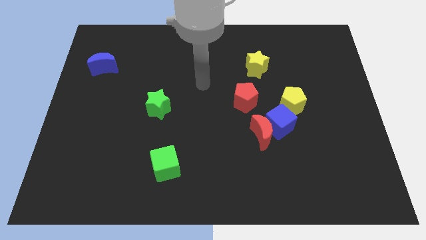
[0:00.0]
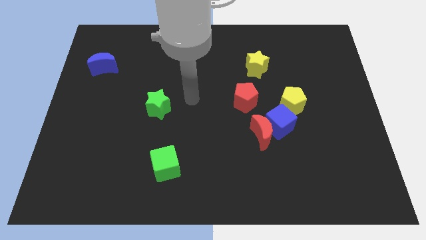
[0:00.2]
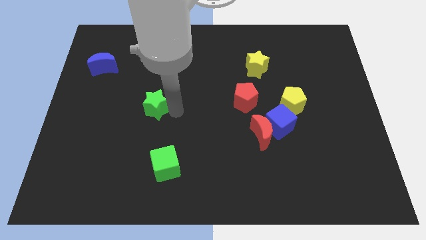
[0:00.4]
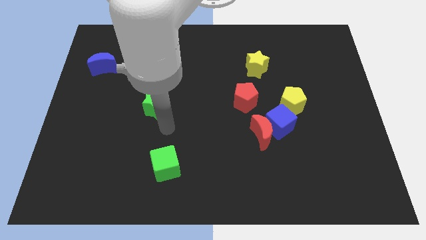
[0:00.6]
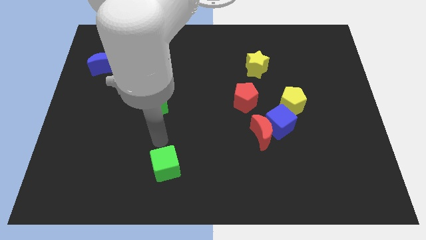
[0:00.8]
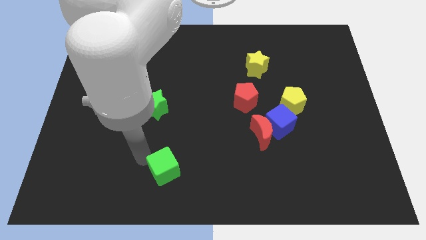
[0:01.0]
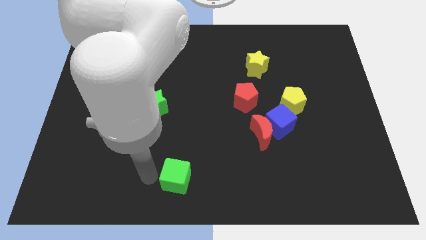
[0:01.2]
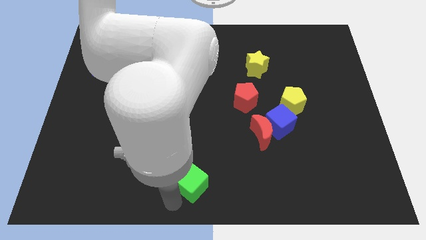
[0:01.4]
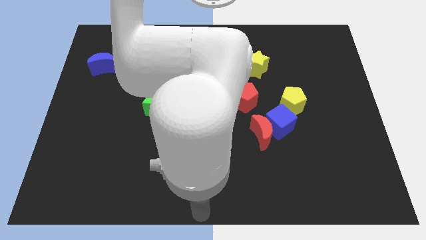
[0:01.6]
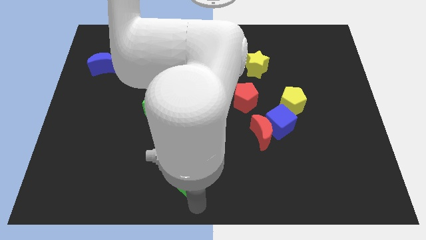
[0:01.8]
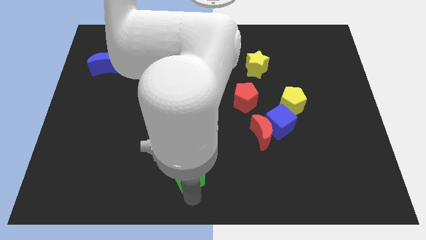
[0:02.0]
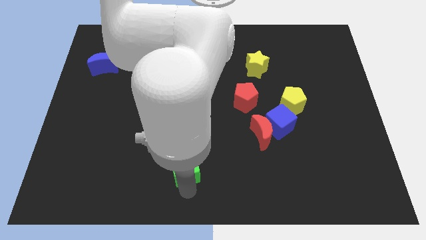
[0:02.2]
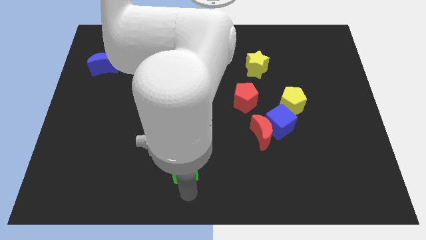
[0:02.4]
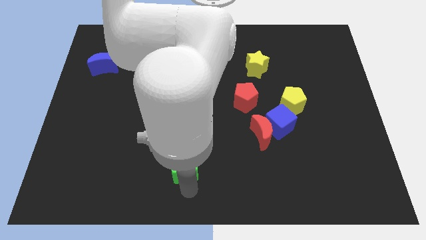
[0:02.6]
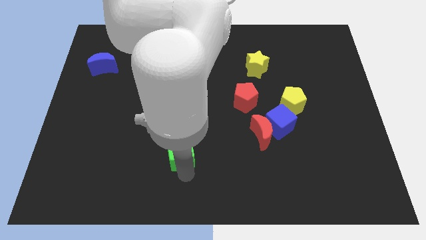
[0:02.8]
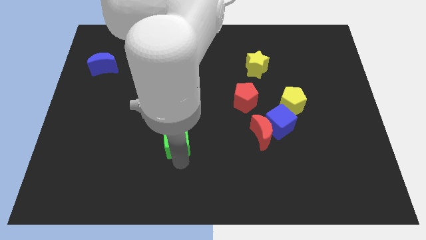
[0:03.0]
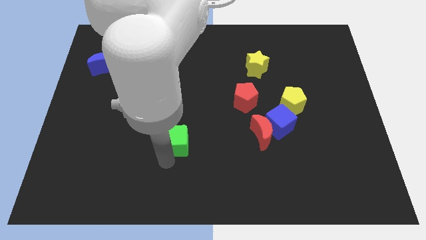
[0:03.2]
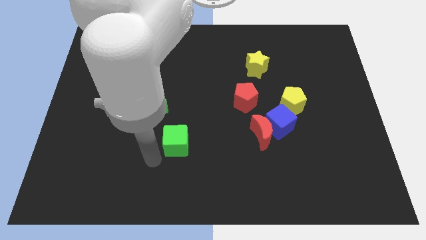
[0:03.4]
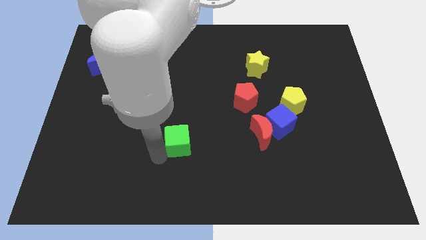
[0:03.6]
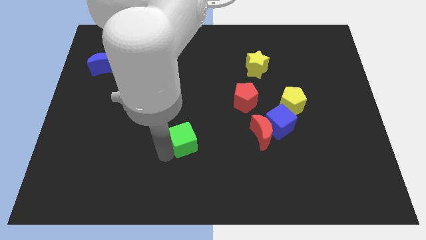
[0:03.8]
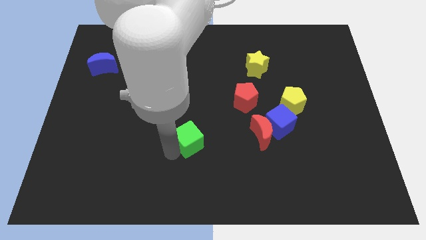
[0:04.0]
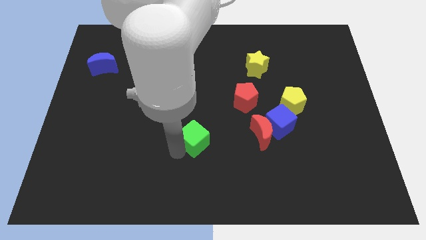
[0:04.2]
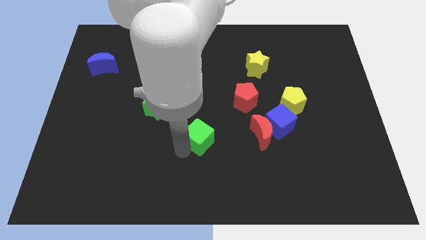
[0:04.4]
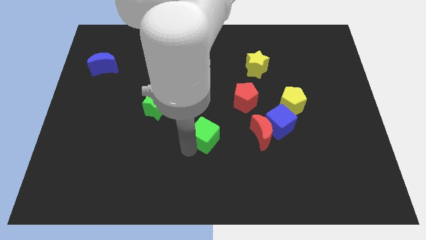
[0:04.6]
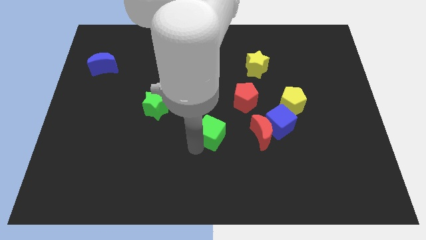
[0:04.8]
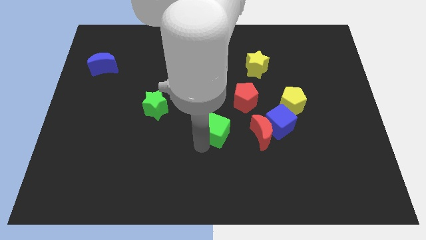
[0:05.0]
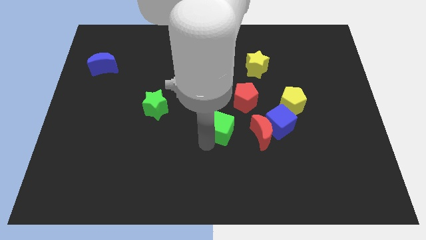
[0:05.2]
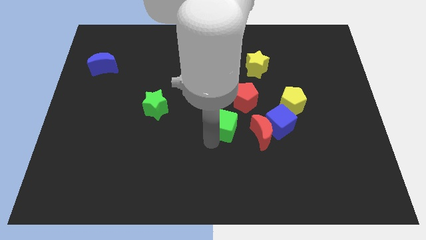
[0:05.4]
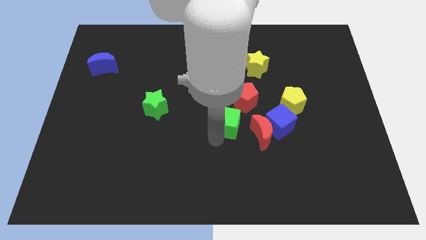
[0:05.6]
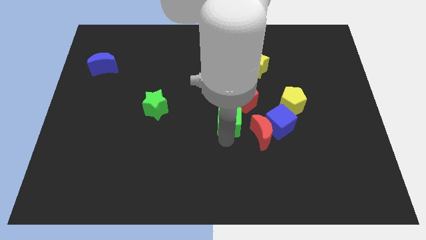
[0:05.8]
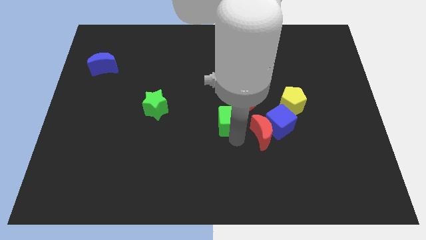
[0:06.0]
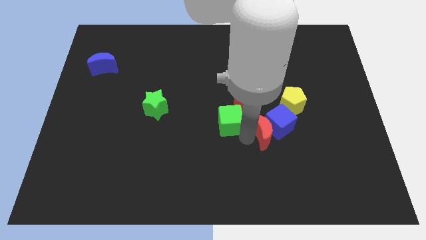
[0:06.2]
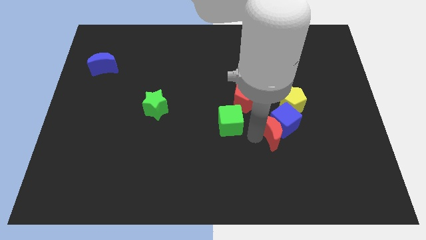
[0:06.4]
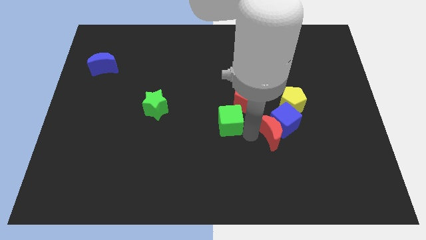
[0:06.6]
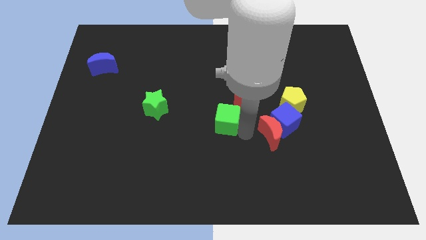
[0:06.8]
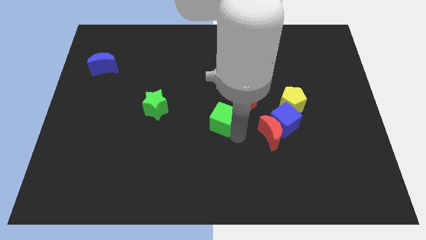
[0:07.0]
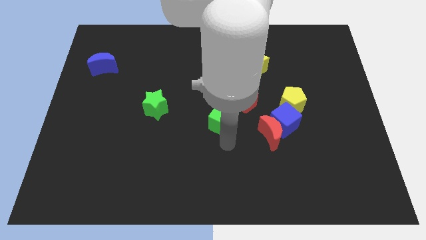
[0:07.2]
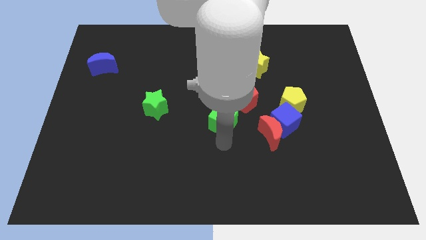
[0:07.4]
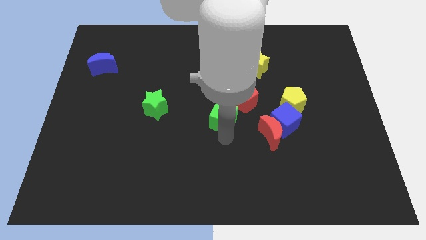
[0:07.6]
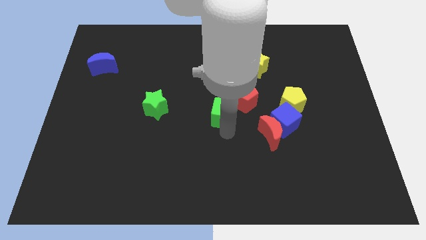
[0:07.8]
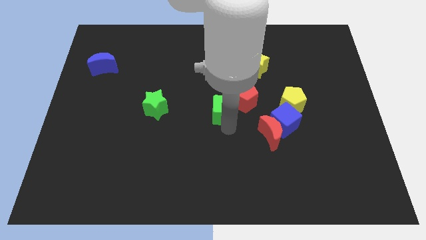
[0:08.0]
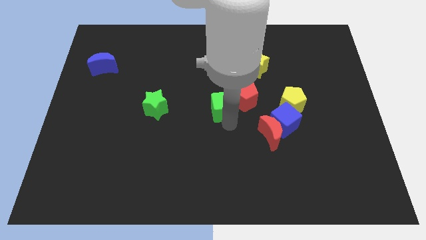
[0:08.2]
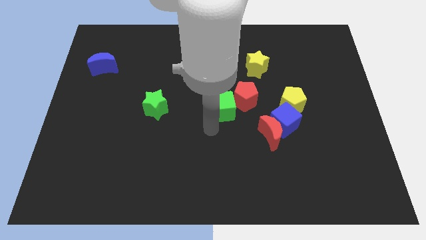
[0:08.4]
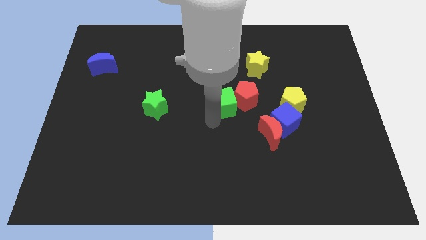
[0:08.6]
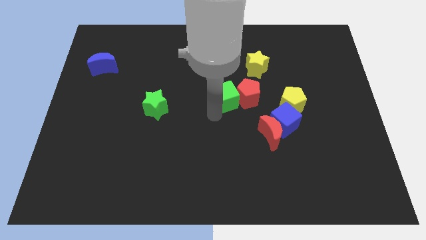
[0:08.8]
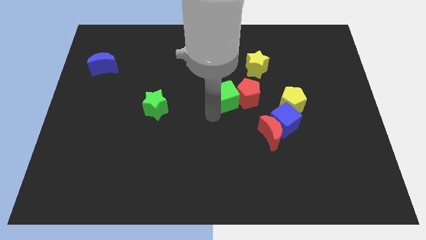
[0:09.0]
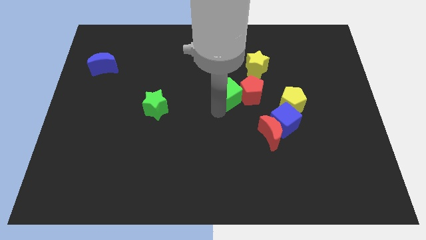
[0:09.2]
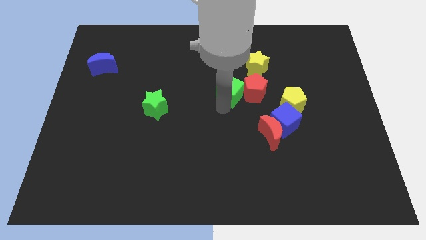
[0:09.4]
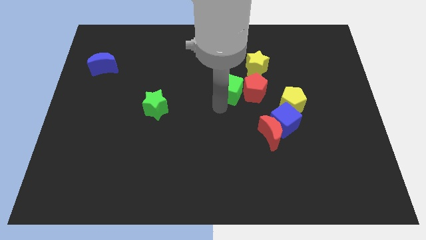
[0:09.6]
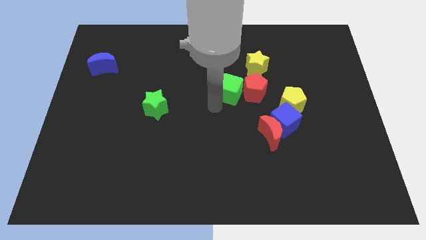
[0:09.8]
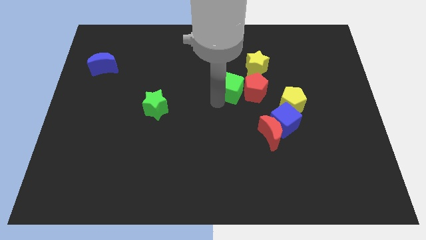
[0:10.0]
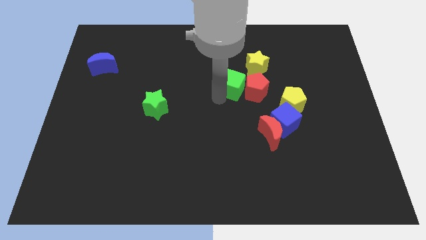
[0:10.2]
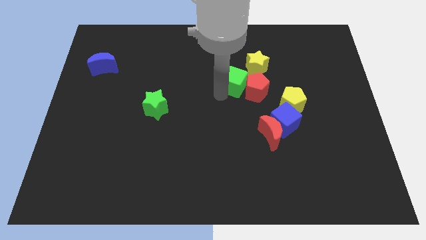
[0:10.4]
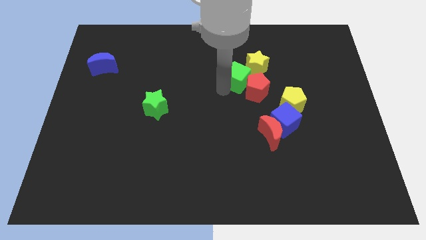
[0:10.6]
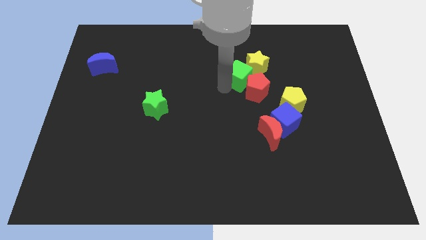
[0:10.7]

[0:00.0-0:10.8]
put the green cube towards the yellow star

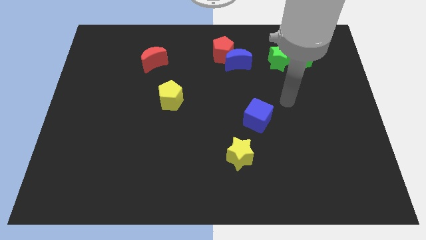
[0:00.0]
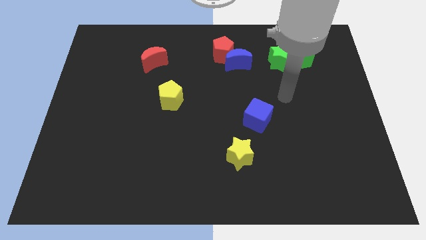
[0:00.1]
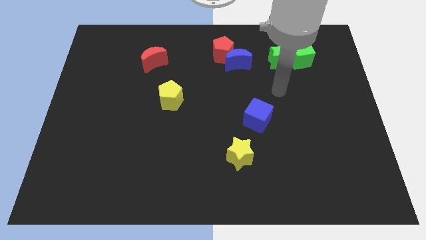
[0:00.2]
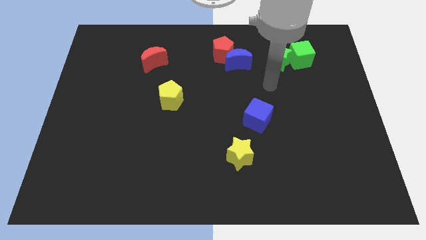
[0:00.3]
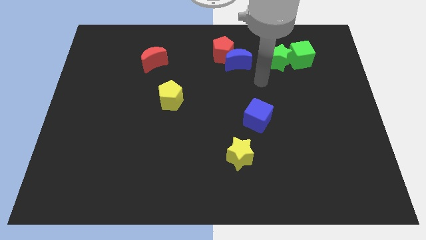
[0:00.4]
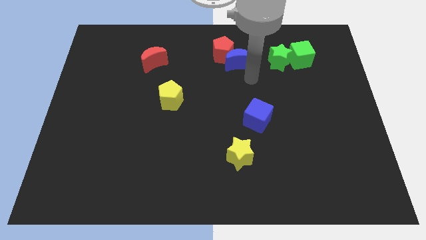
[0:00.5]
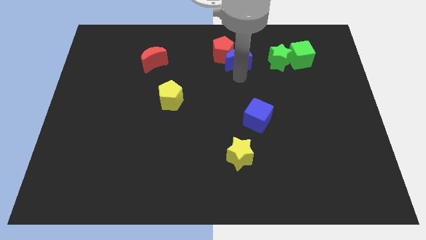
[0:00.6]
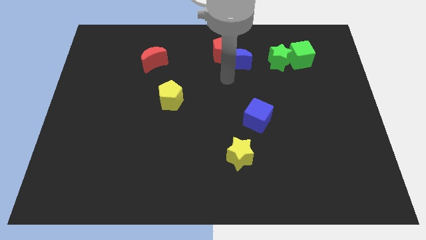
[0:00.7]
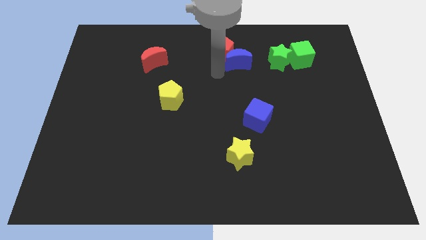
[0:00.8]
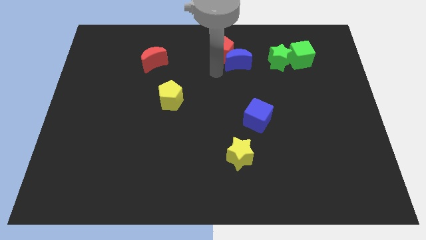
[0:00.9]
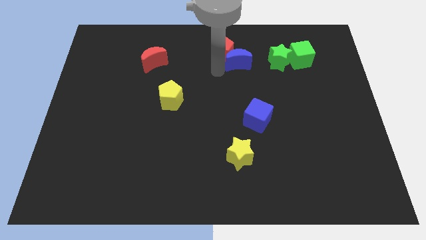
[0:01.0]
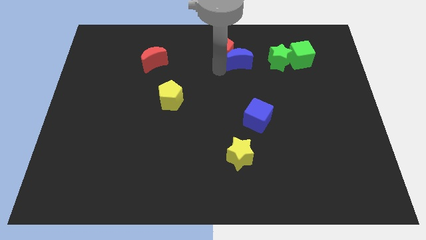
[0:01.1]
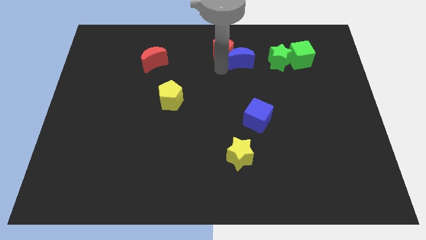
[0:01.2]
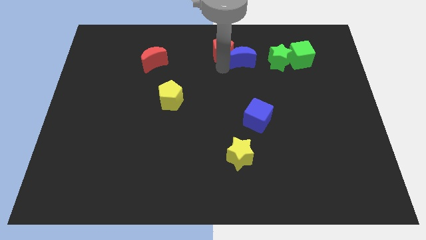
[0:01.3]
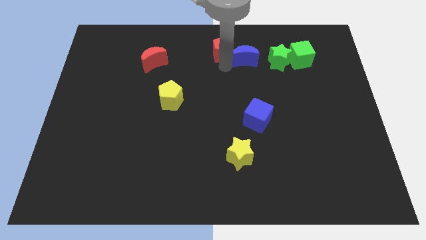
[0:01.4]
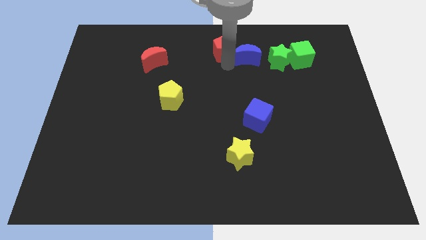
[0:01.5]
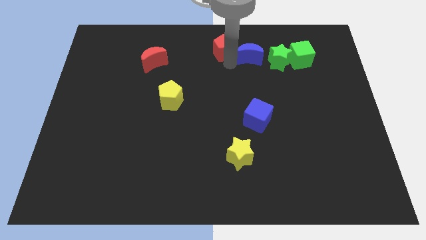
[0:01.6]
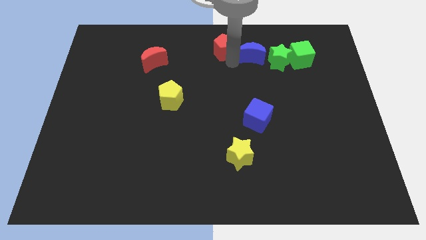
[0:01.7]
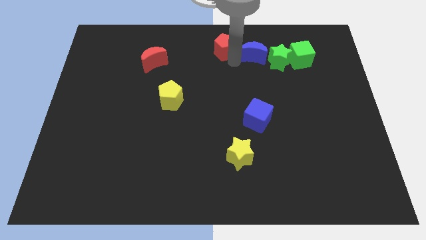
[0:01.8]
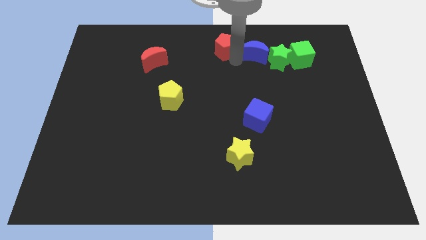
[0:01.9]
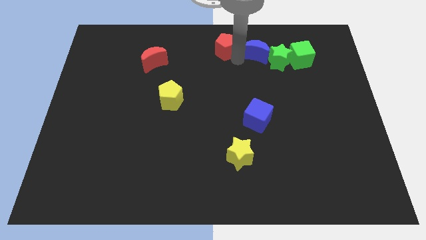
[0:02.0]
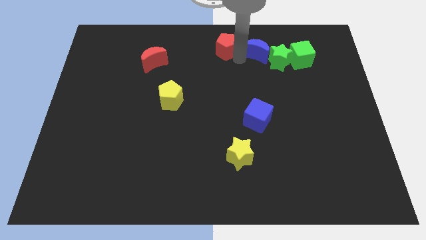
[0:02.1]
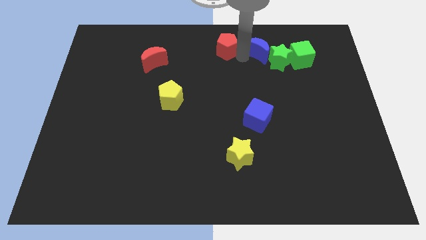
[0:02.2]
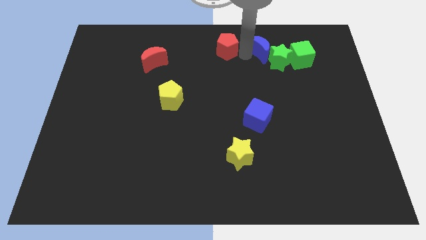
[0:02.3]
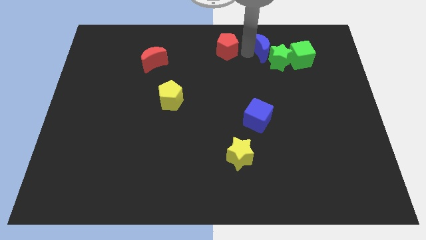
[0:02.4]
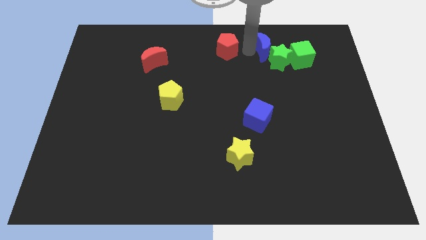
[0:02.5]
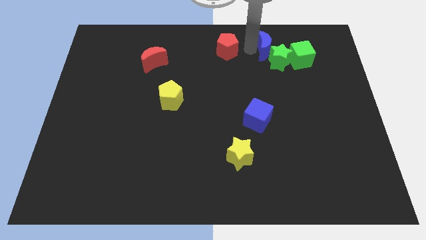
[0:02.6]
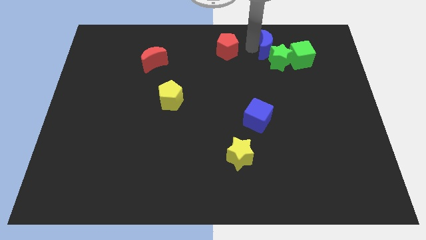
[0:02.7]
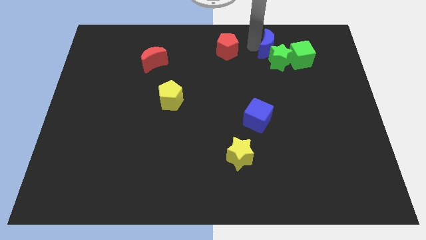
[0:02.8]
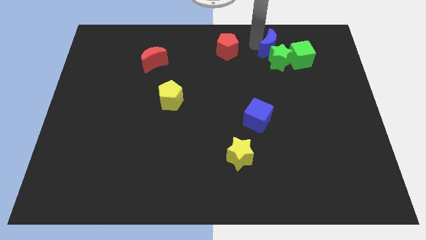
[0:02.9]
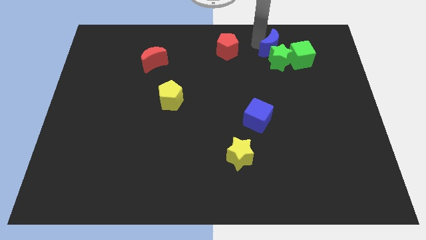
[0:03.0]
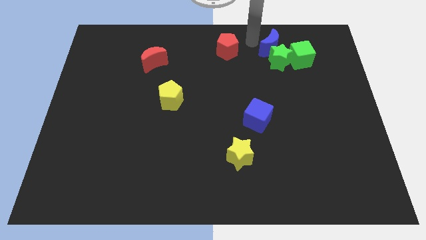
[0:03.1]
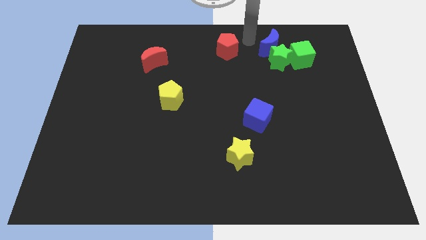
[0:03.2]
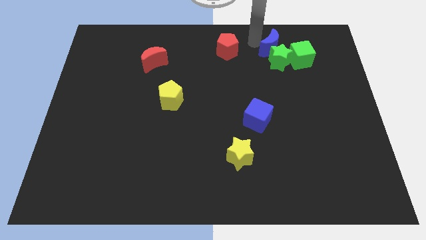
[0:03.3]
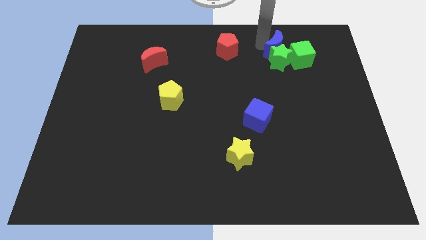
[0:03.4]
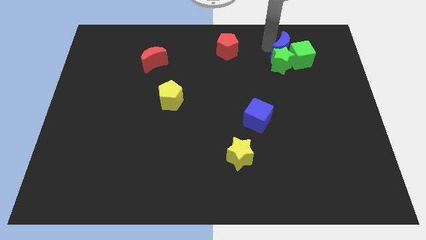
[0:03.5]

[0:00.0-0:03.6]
move the blue moon close to the green cube
